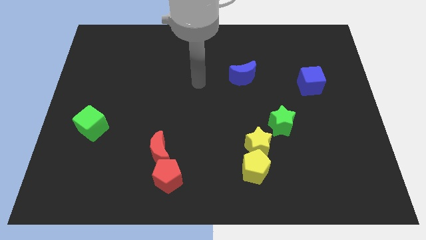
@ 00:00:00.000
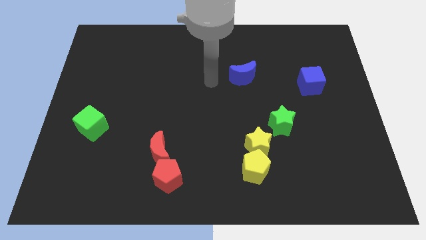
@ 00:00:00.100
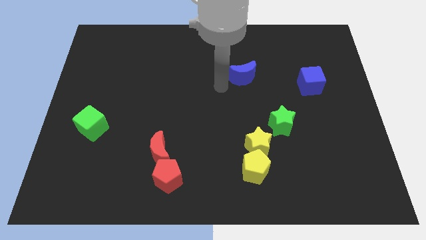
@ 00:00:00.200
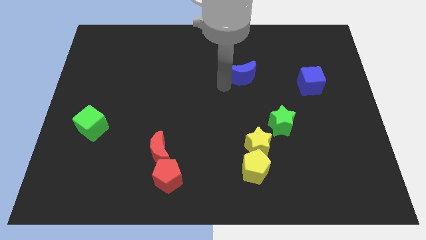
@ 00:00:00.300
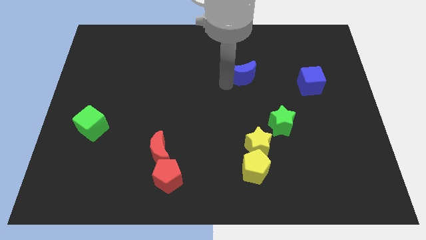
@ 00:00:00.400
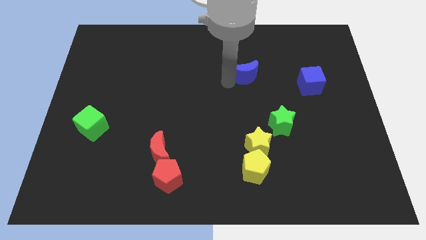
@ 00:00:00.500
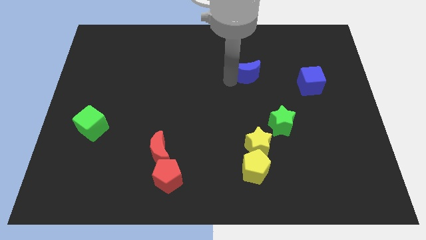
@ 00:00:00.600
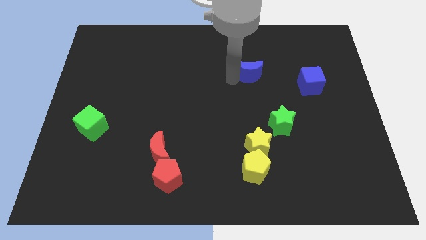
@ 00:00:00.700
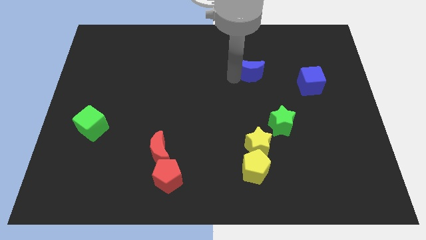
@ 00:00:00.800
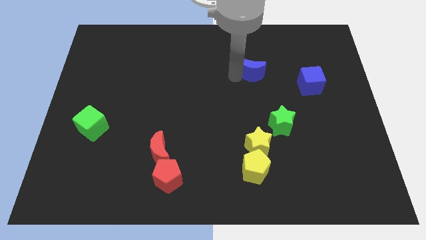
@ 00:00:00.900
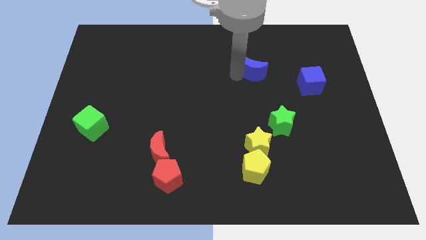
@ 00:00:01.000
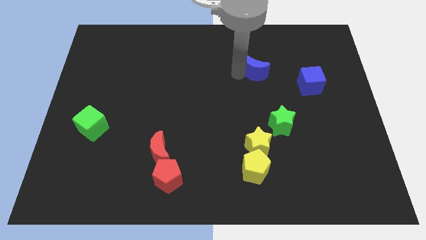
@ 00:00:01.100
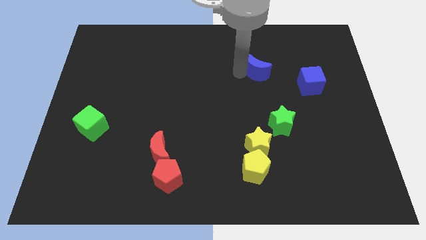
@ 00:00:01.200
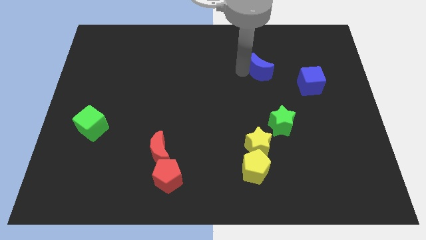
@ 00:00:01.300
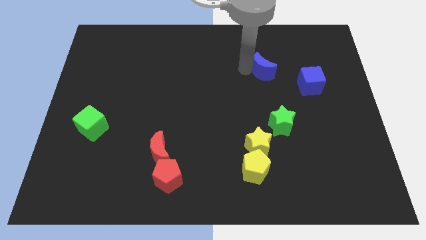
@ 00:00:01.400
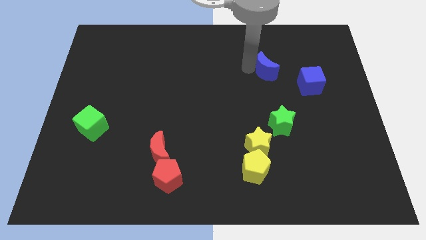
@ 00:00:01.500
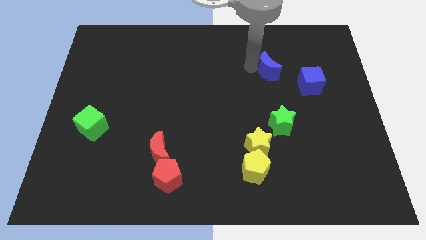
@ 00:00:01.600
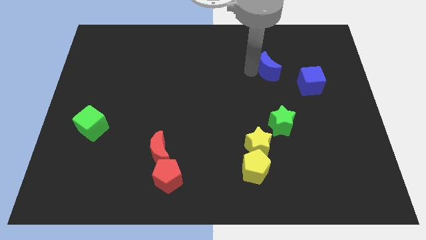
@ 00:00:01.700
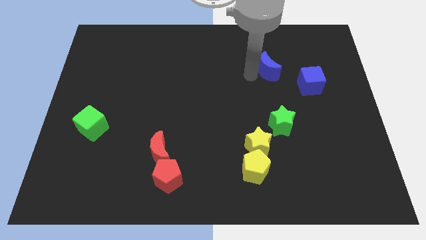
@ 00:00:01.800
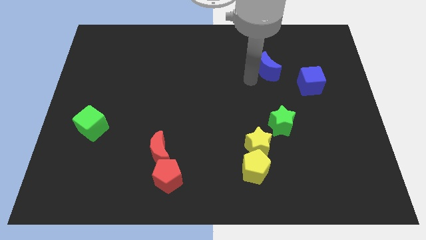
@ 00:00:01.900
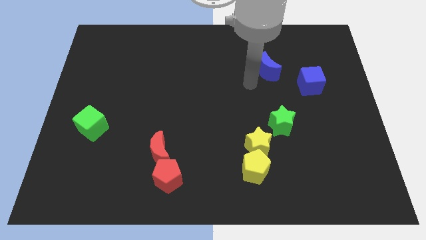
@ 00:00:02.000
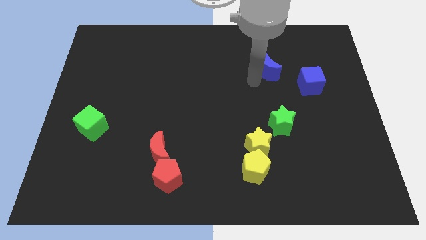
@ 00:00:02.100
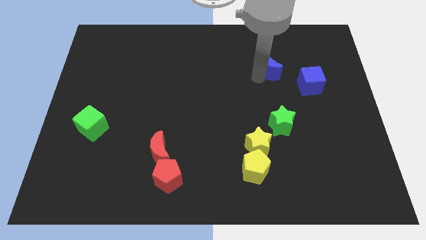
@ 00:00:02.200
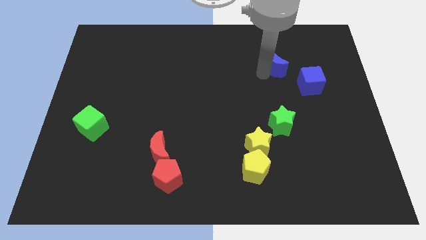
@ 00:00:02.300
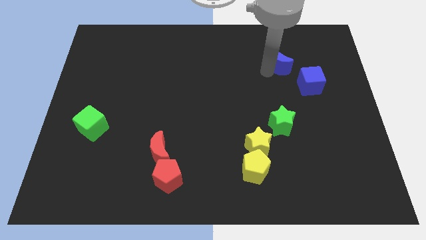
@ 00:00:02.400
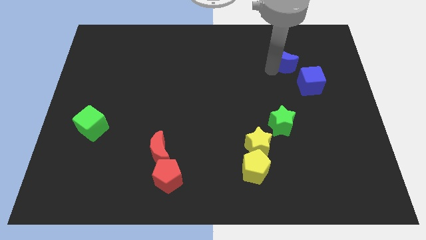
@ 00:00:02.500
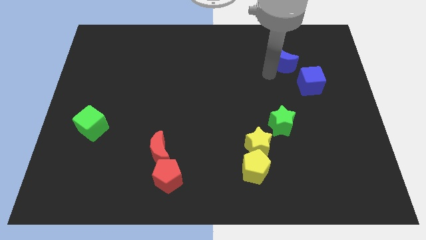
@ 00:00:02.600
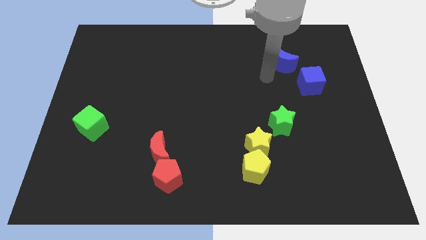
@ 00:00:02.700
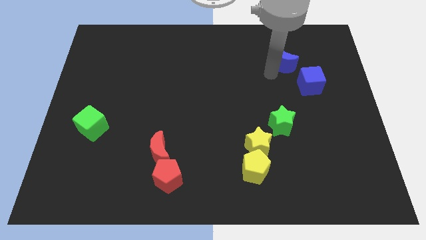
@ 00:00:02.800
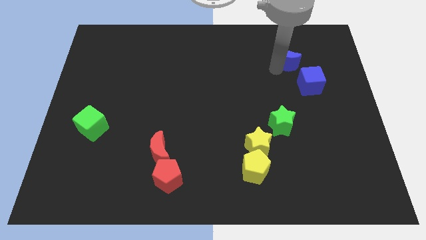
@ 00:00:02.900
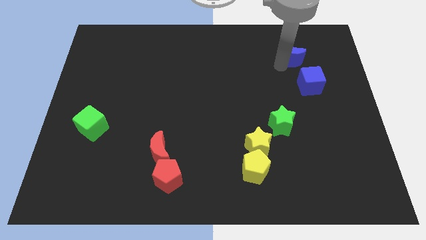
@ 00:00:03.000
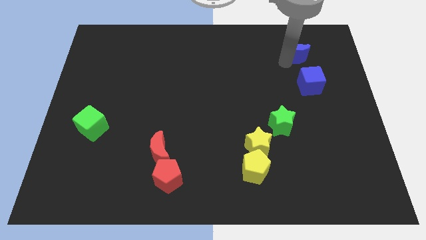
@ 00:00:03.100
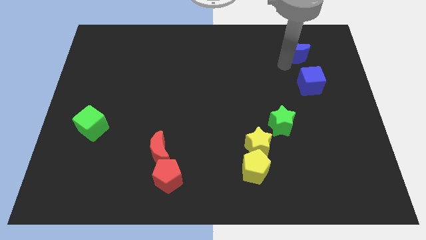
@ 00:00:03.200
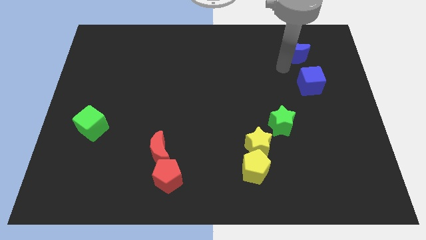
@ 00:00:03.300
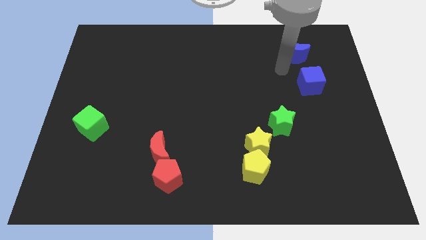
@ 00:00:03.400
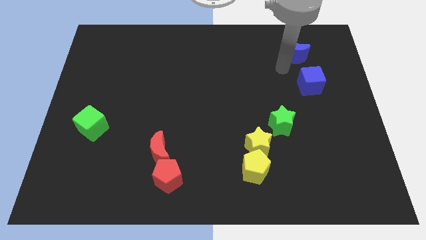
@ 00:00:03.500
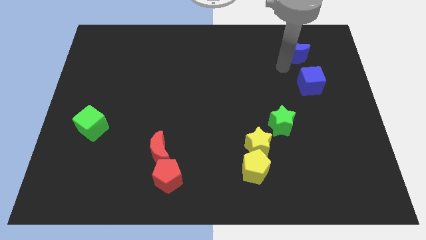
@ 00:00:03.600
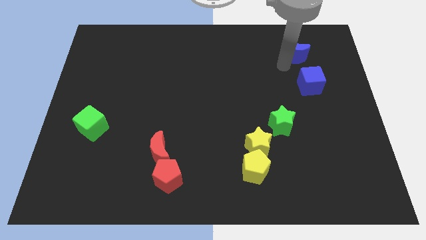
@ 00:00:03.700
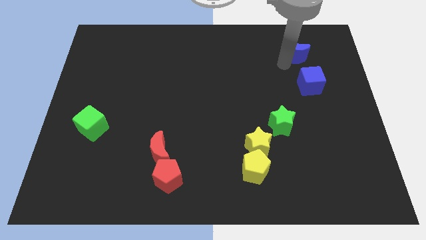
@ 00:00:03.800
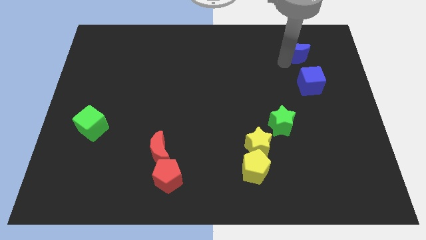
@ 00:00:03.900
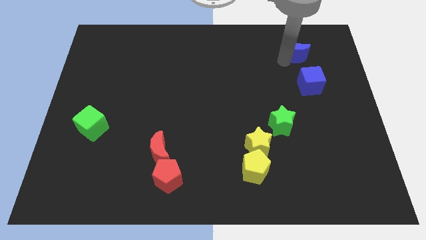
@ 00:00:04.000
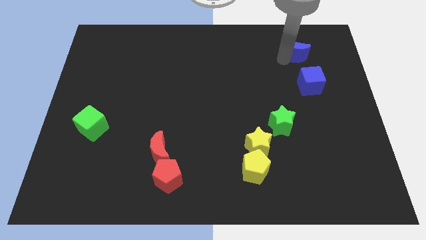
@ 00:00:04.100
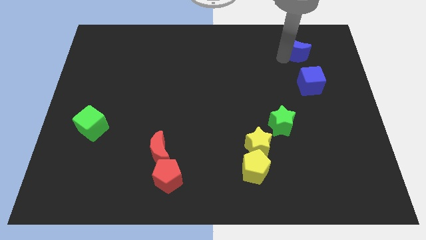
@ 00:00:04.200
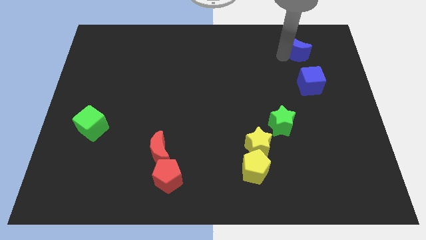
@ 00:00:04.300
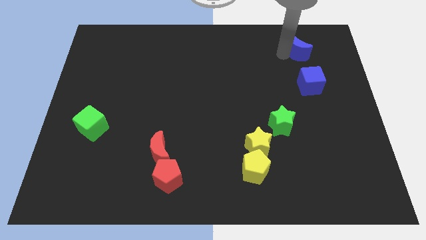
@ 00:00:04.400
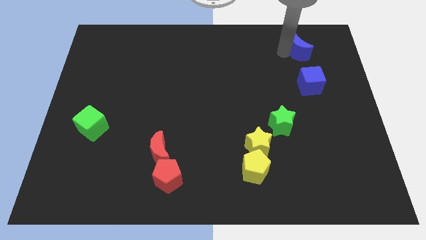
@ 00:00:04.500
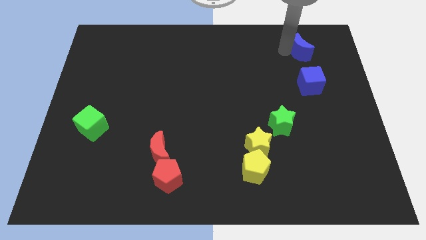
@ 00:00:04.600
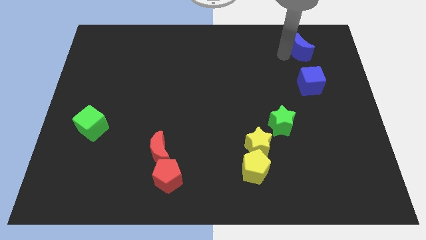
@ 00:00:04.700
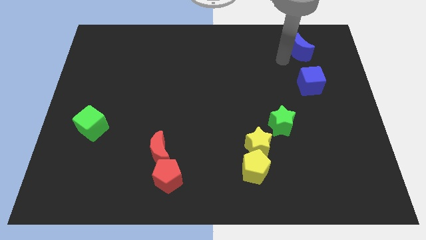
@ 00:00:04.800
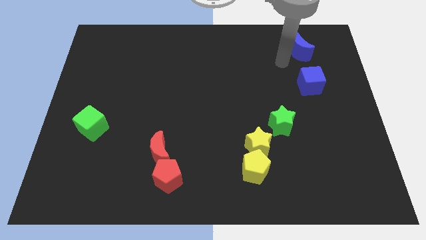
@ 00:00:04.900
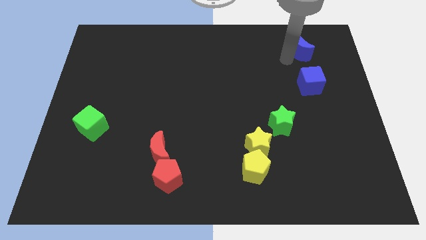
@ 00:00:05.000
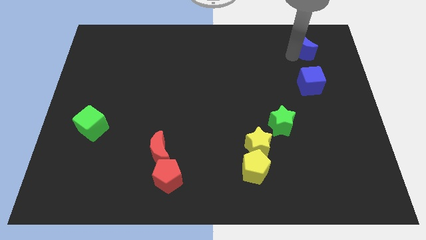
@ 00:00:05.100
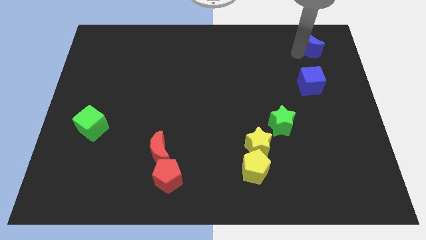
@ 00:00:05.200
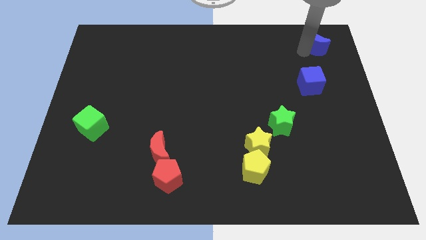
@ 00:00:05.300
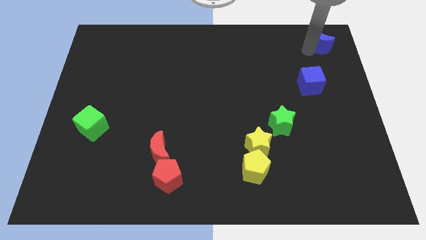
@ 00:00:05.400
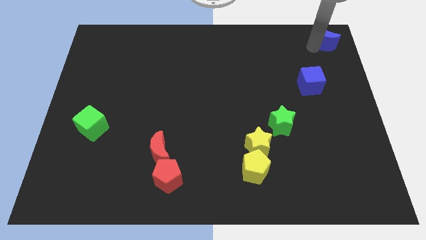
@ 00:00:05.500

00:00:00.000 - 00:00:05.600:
slide the blue moon to the upper right corner
